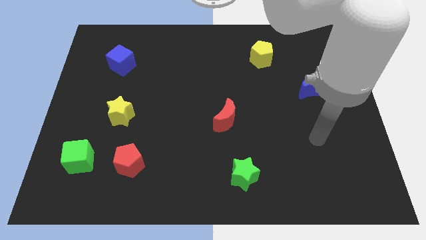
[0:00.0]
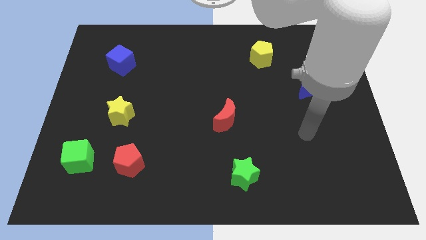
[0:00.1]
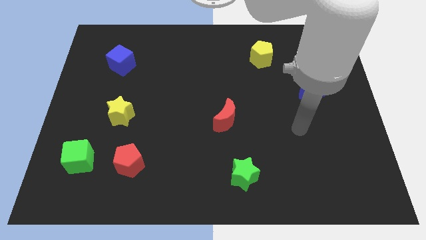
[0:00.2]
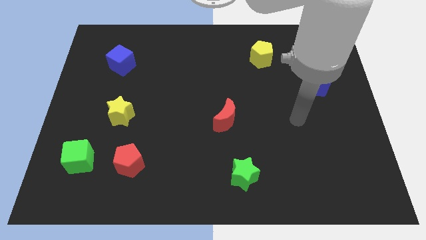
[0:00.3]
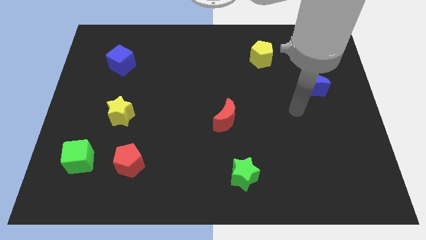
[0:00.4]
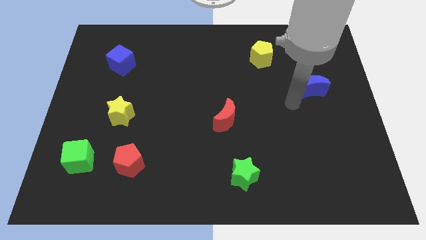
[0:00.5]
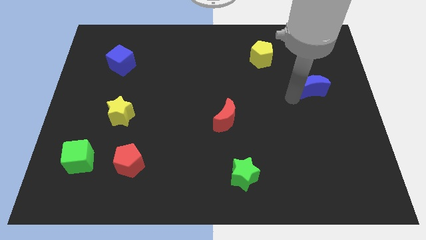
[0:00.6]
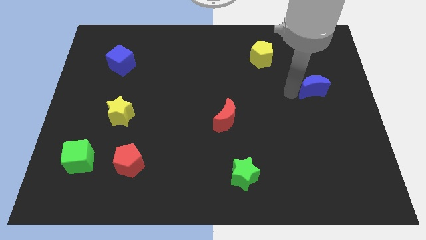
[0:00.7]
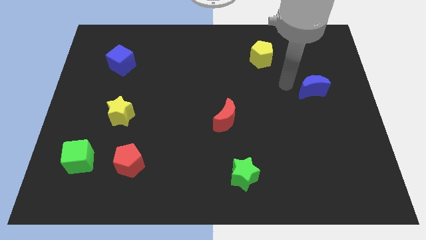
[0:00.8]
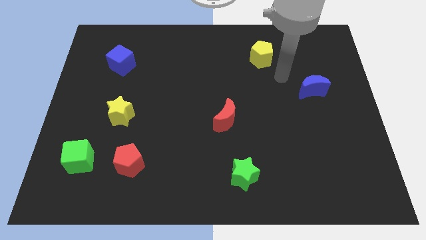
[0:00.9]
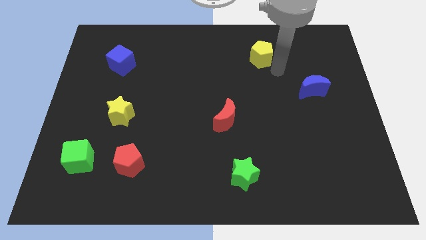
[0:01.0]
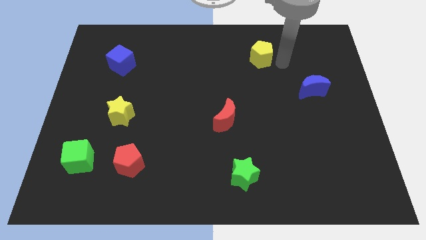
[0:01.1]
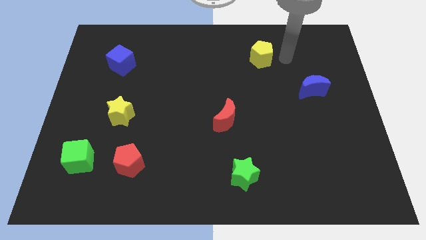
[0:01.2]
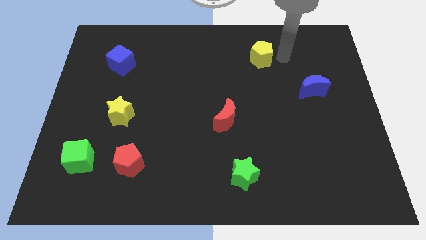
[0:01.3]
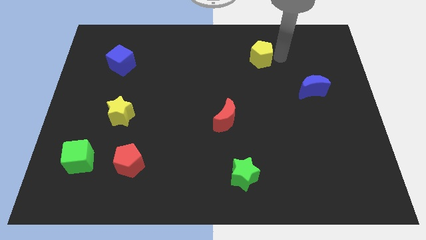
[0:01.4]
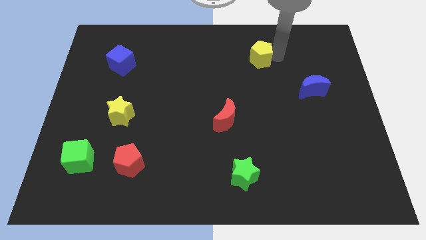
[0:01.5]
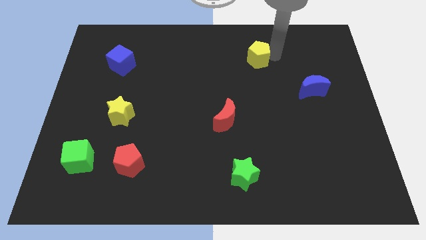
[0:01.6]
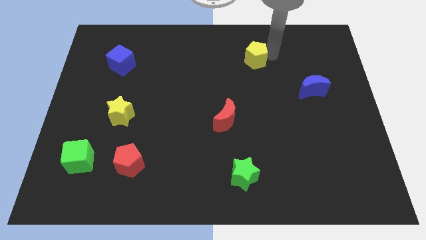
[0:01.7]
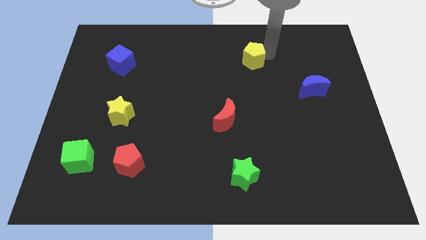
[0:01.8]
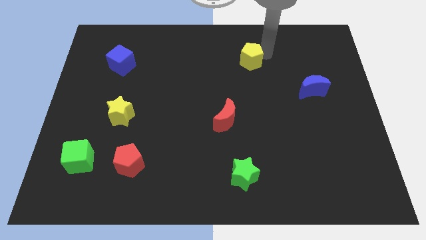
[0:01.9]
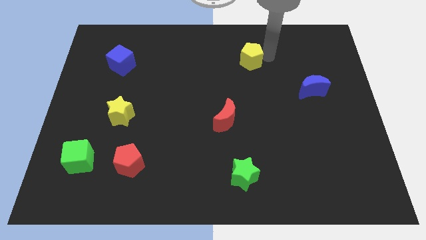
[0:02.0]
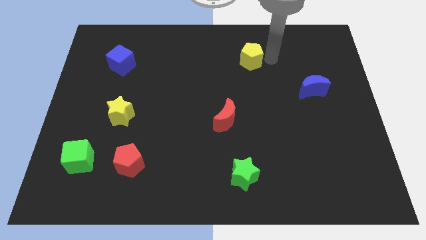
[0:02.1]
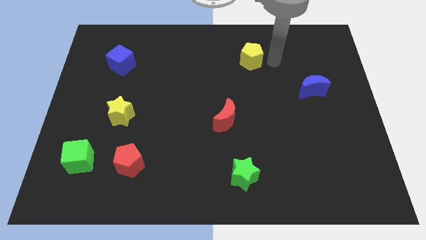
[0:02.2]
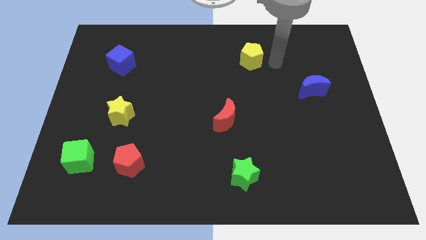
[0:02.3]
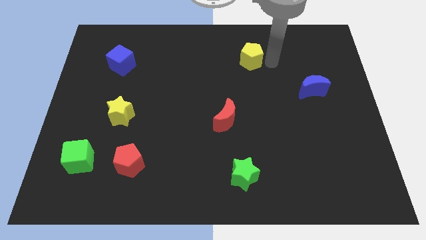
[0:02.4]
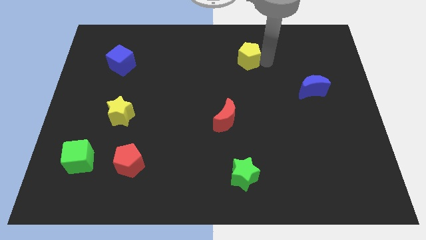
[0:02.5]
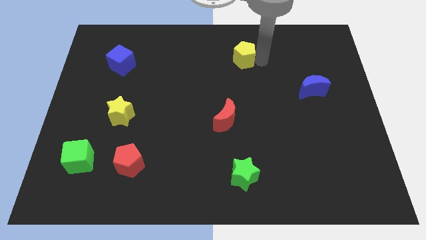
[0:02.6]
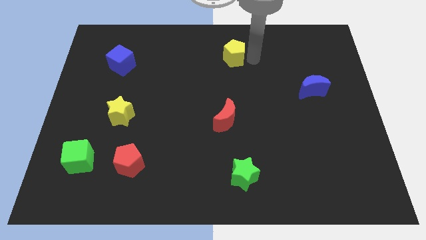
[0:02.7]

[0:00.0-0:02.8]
slightly push the yellow pentagon to the left

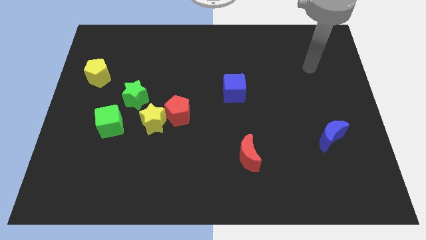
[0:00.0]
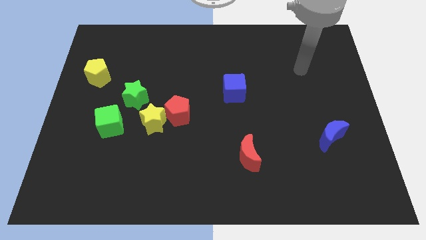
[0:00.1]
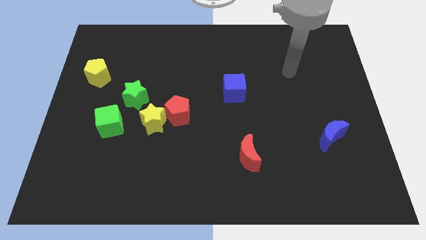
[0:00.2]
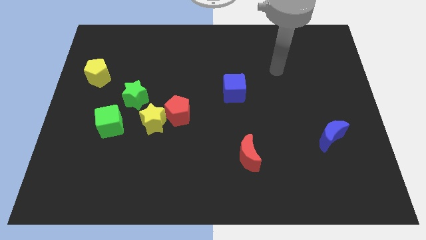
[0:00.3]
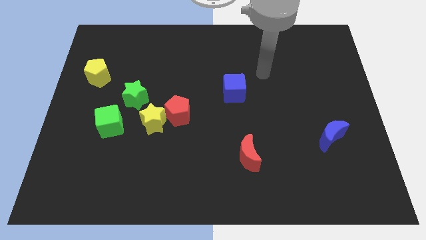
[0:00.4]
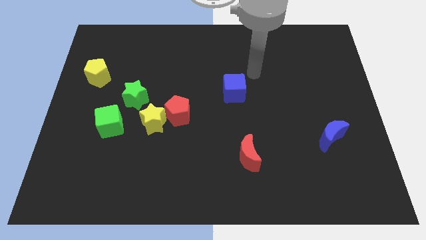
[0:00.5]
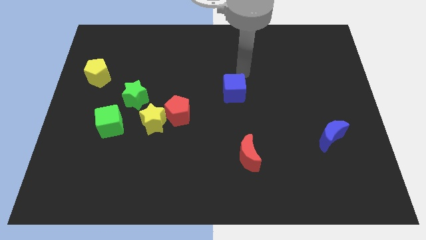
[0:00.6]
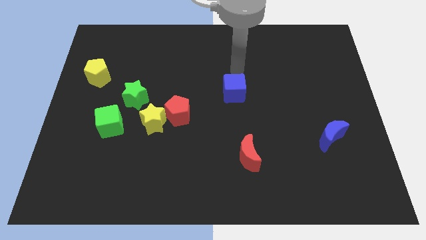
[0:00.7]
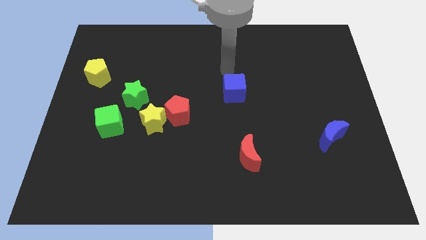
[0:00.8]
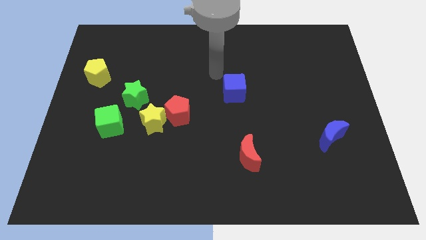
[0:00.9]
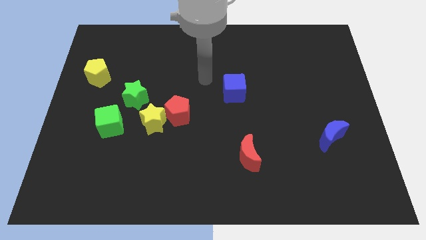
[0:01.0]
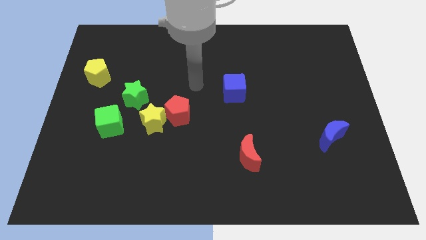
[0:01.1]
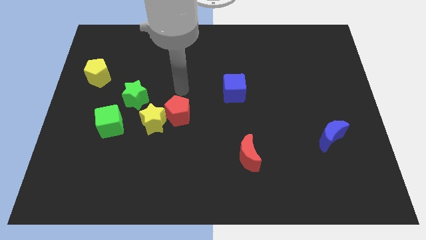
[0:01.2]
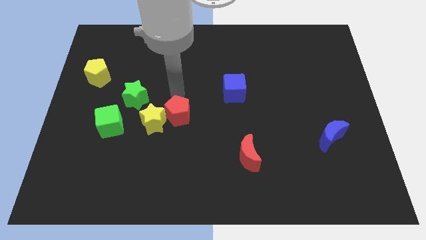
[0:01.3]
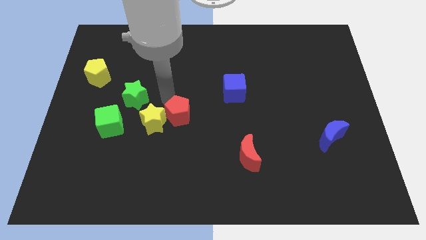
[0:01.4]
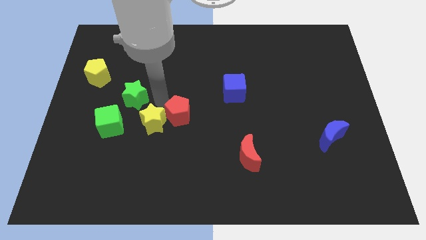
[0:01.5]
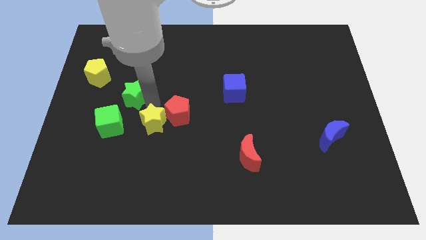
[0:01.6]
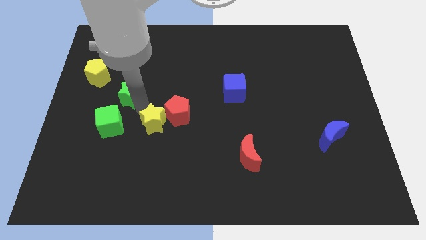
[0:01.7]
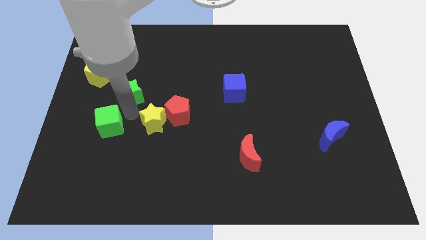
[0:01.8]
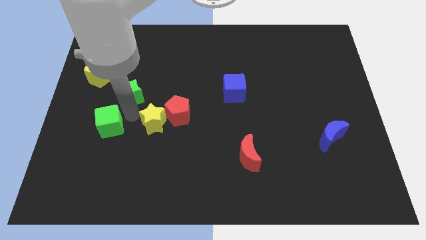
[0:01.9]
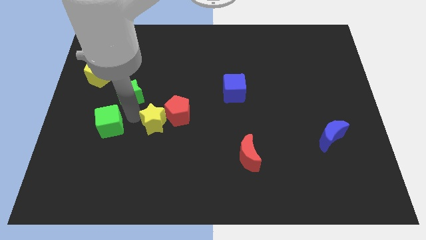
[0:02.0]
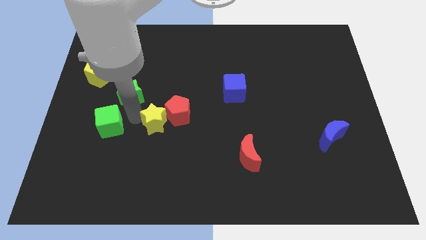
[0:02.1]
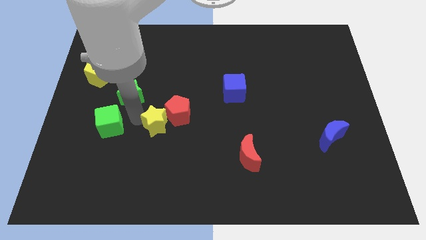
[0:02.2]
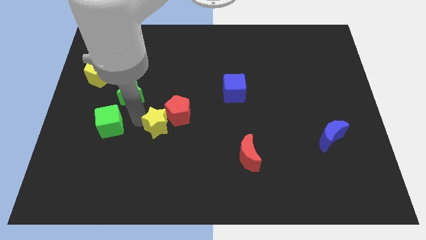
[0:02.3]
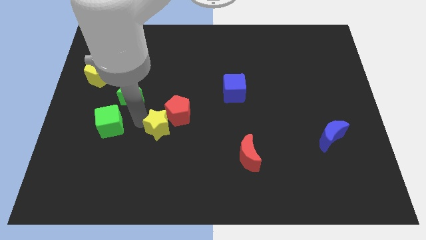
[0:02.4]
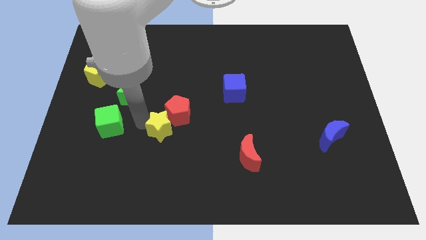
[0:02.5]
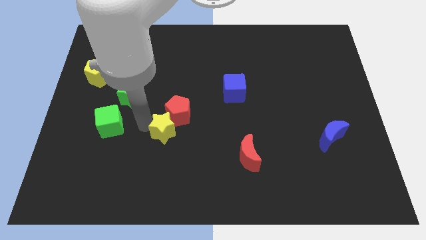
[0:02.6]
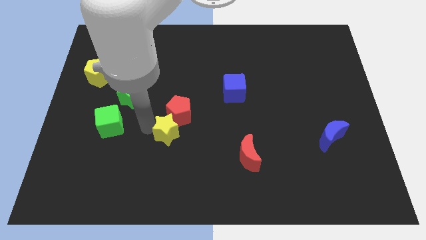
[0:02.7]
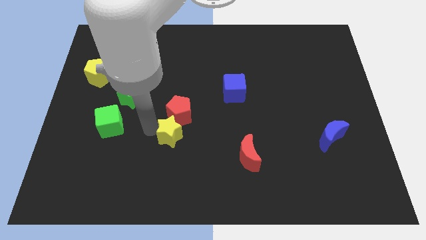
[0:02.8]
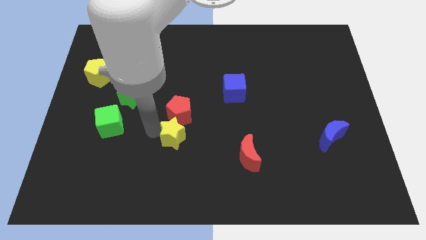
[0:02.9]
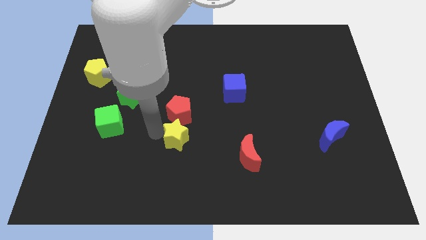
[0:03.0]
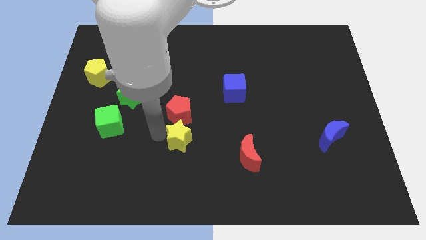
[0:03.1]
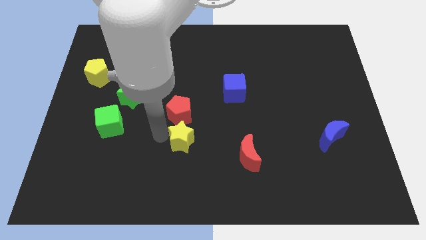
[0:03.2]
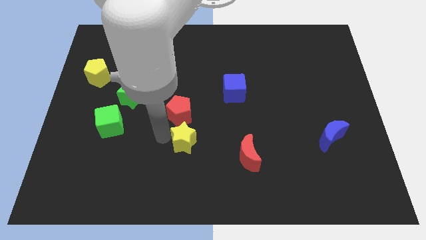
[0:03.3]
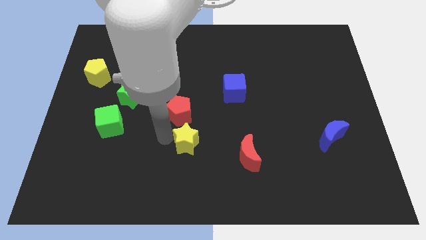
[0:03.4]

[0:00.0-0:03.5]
slightly push the yellow star to the right

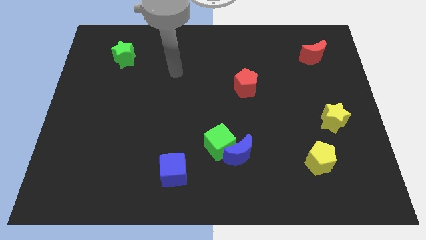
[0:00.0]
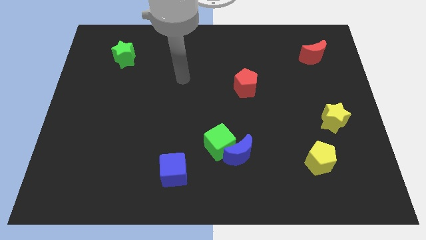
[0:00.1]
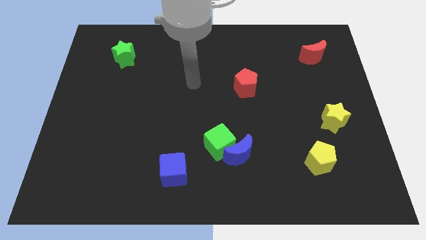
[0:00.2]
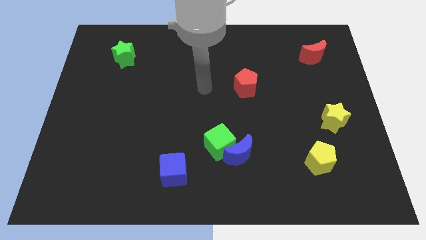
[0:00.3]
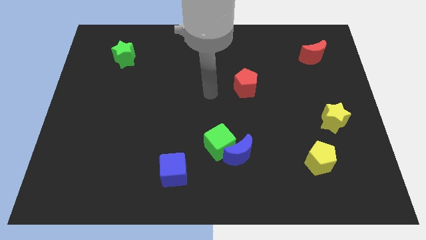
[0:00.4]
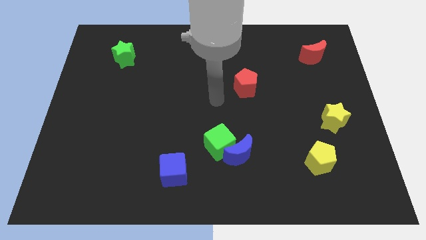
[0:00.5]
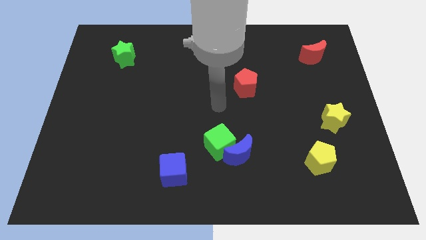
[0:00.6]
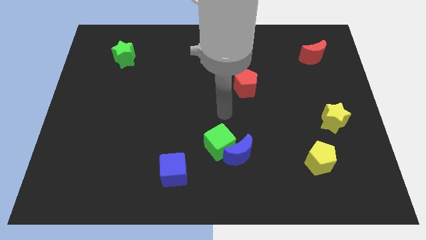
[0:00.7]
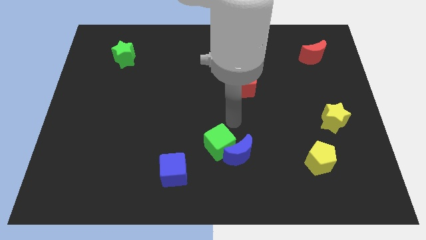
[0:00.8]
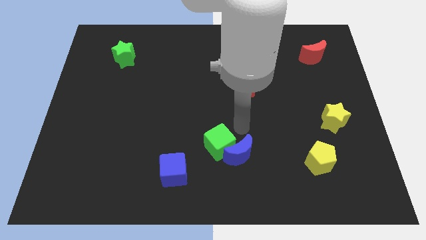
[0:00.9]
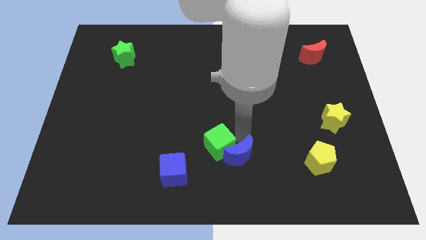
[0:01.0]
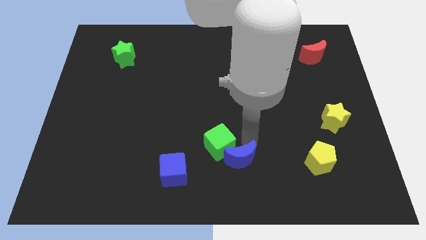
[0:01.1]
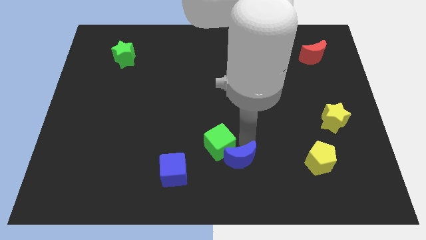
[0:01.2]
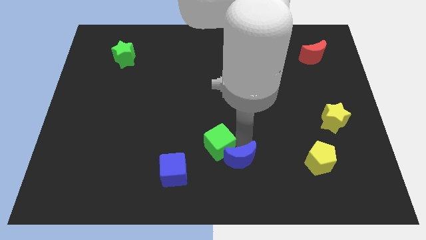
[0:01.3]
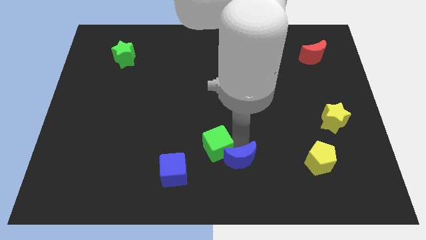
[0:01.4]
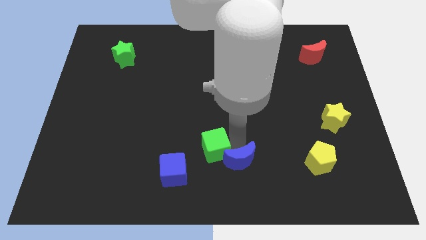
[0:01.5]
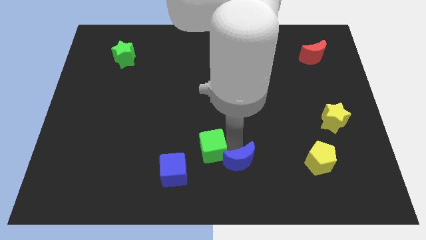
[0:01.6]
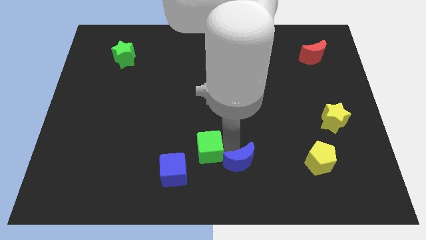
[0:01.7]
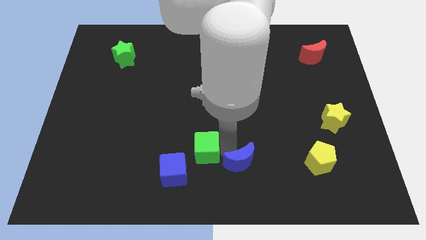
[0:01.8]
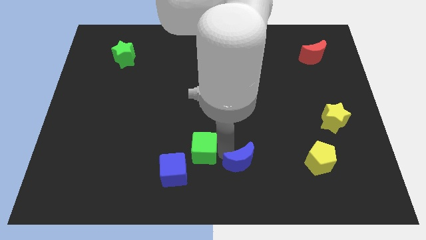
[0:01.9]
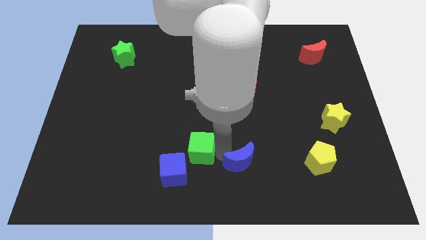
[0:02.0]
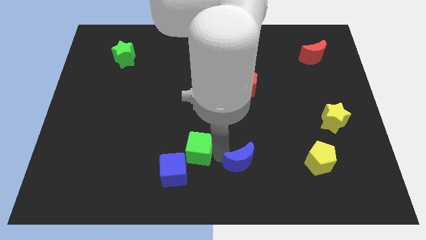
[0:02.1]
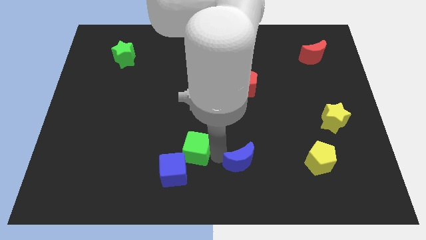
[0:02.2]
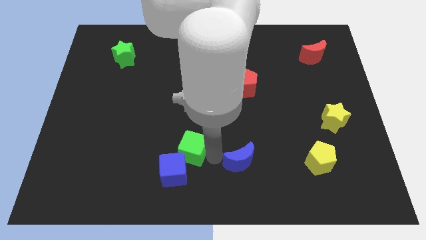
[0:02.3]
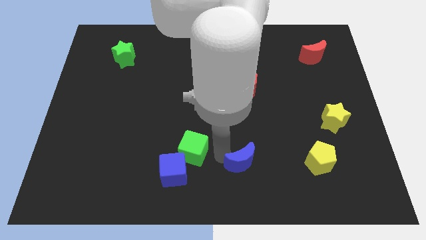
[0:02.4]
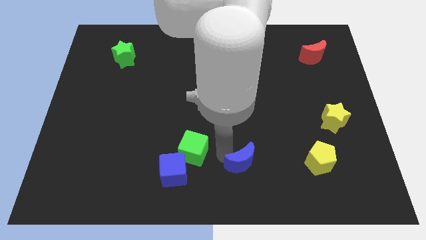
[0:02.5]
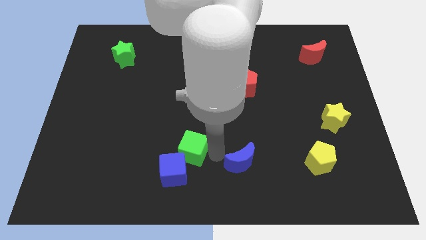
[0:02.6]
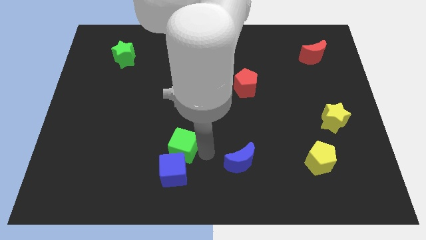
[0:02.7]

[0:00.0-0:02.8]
slightly slide the green cube to the left
